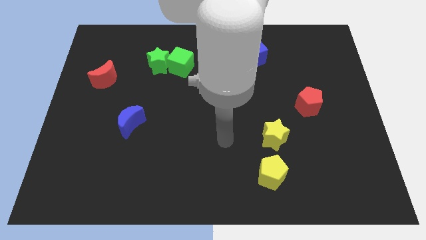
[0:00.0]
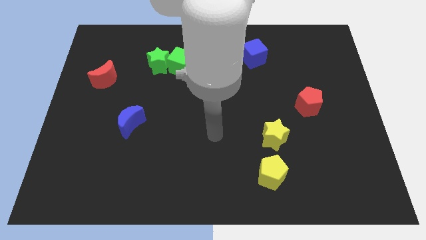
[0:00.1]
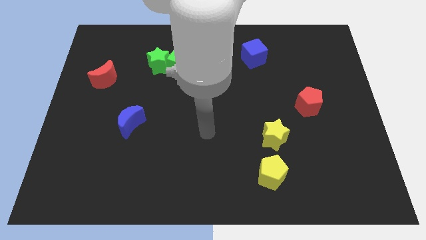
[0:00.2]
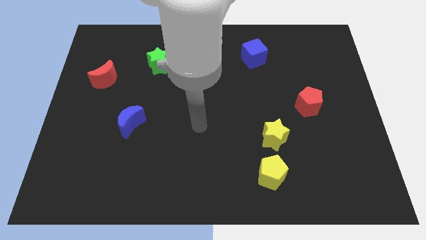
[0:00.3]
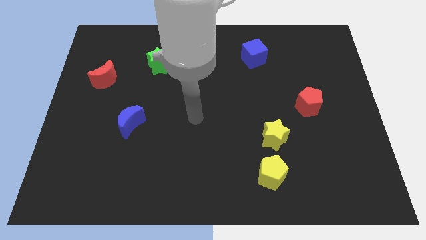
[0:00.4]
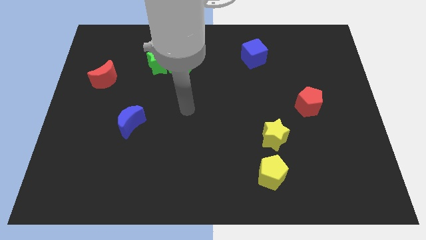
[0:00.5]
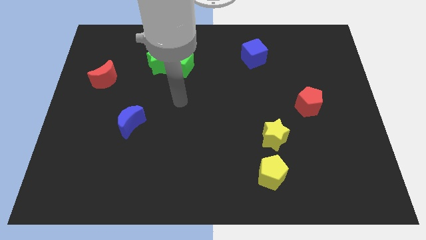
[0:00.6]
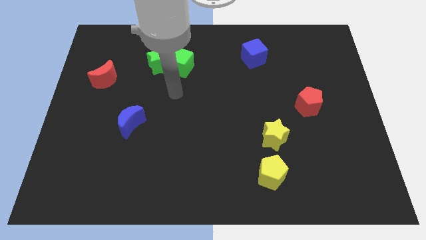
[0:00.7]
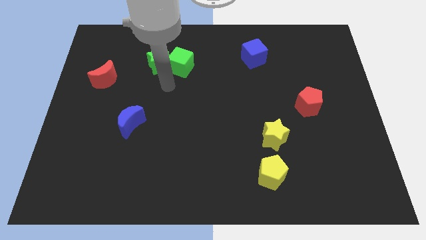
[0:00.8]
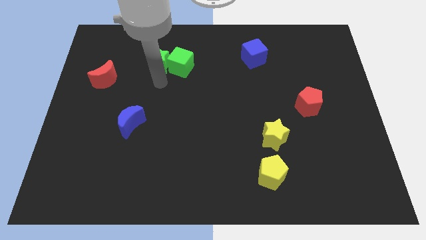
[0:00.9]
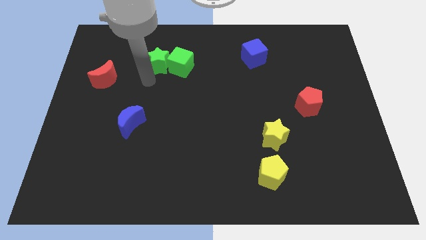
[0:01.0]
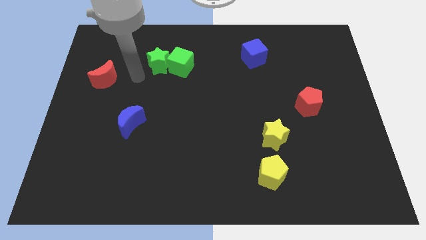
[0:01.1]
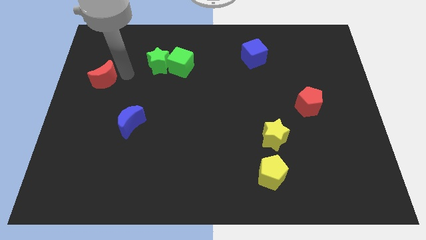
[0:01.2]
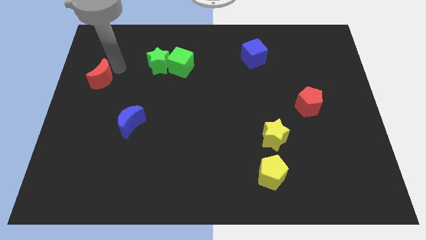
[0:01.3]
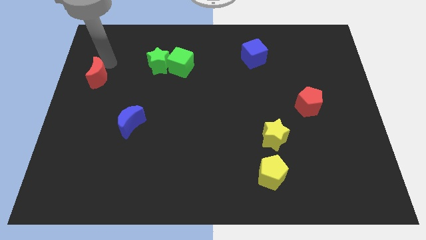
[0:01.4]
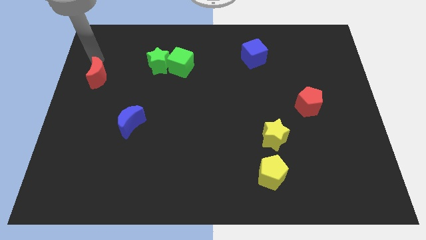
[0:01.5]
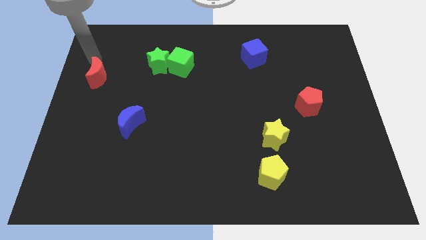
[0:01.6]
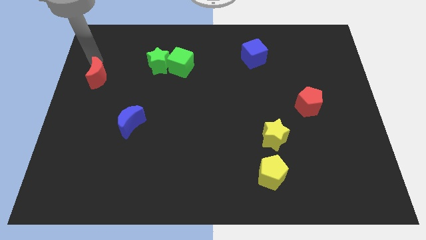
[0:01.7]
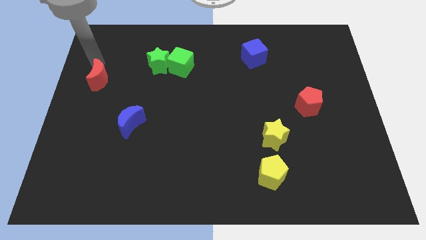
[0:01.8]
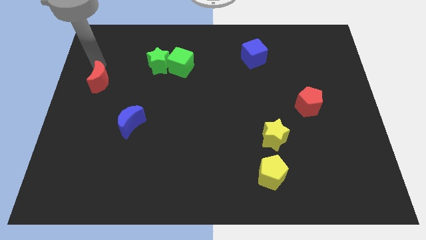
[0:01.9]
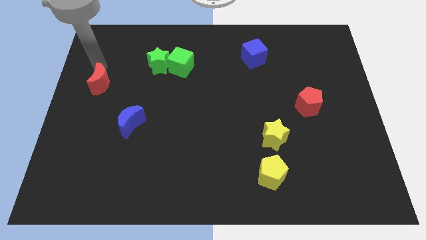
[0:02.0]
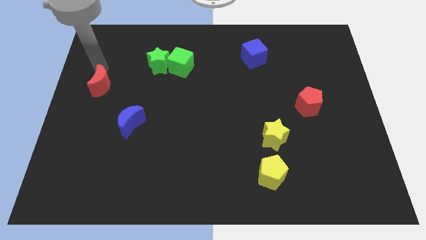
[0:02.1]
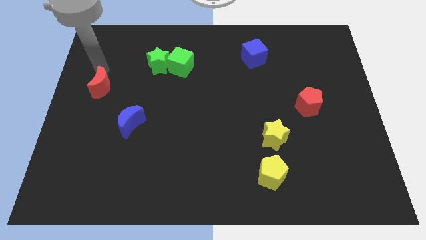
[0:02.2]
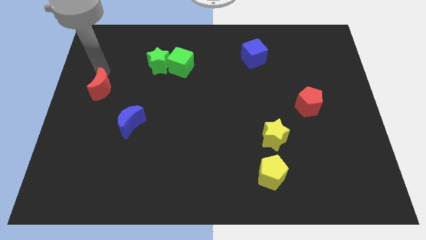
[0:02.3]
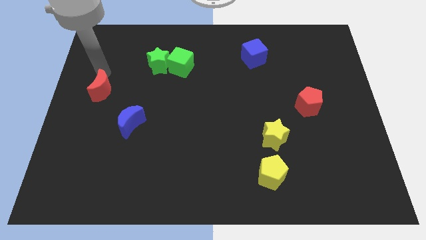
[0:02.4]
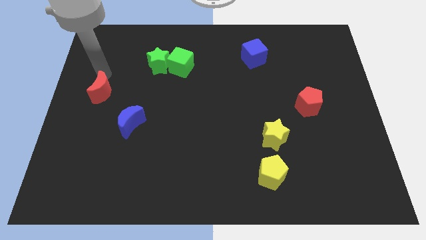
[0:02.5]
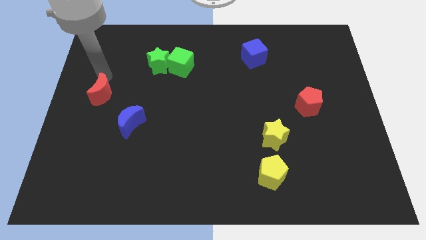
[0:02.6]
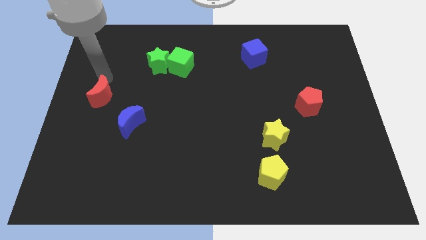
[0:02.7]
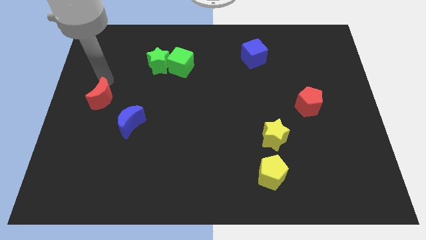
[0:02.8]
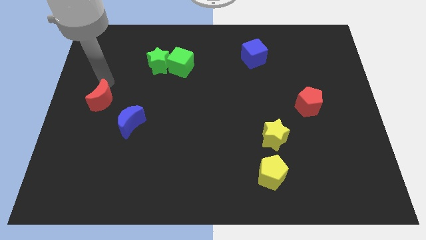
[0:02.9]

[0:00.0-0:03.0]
slightly slide the red moon downwards

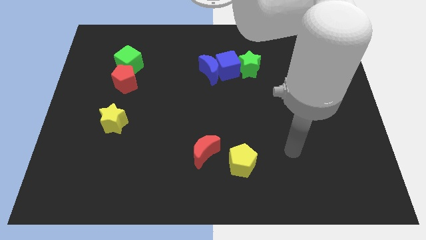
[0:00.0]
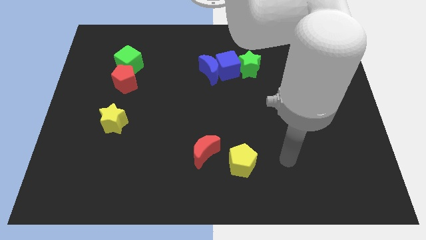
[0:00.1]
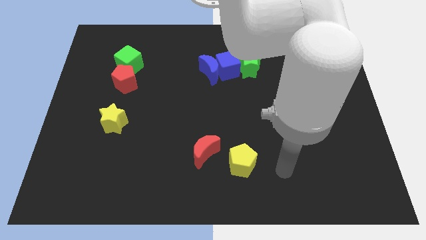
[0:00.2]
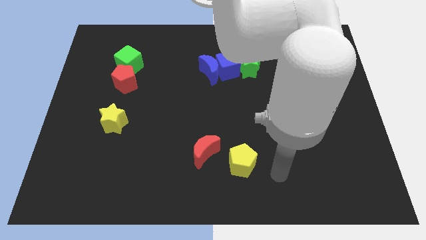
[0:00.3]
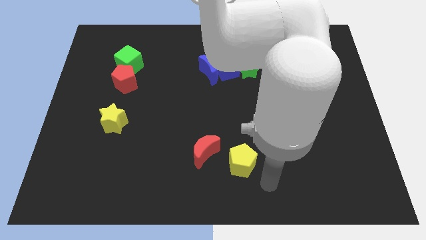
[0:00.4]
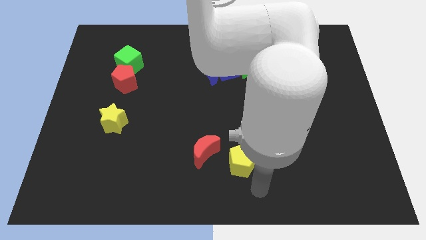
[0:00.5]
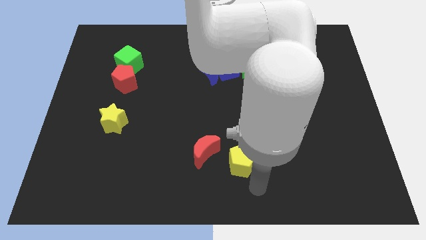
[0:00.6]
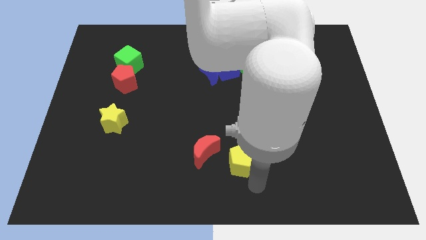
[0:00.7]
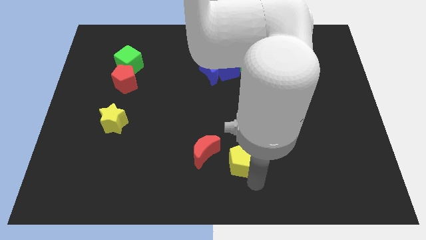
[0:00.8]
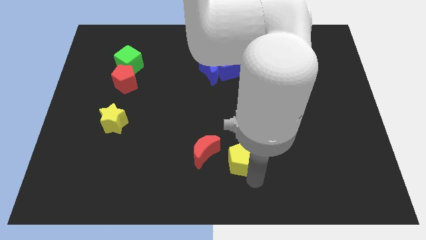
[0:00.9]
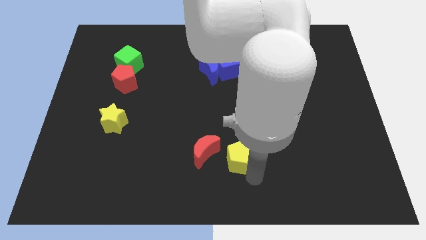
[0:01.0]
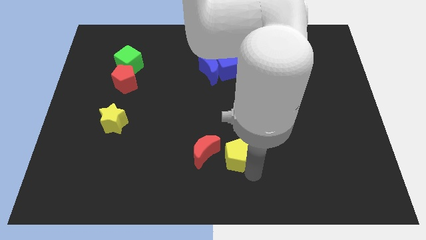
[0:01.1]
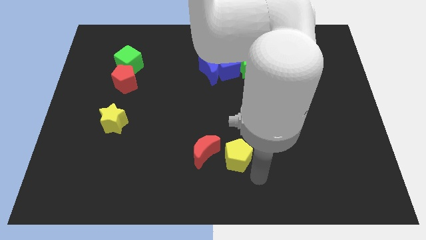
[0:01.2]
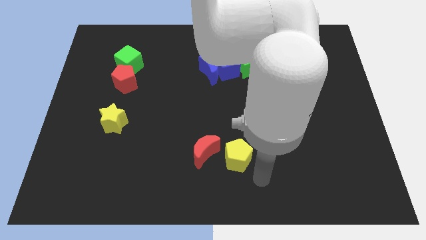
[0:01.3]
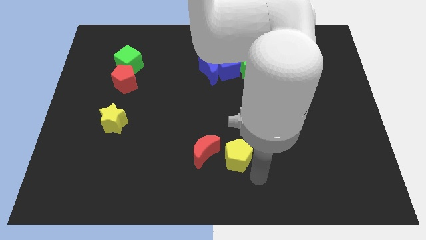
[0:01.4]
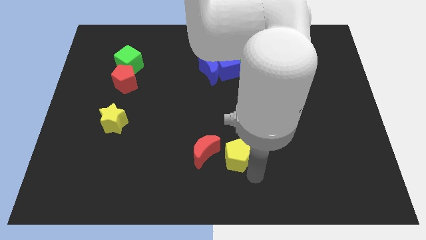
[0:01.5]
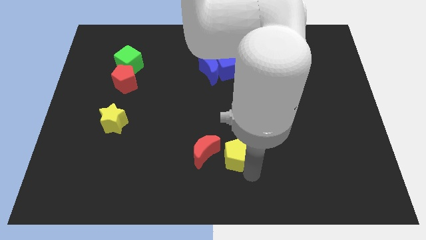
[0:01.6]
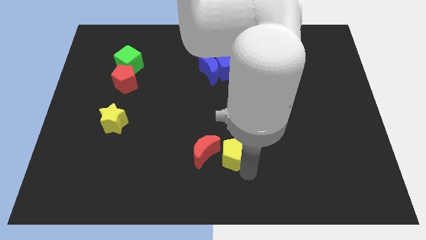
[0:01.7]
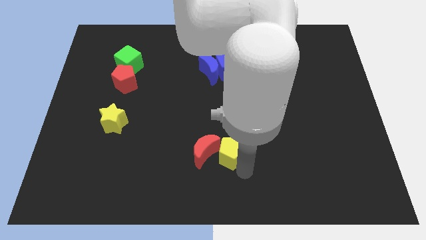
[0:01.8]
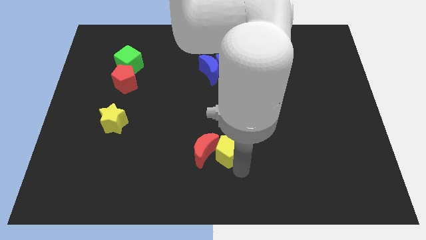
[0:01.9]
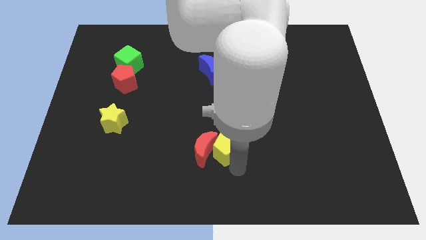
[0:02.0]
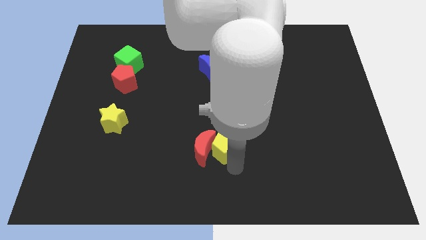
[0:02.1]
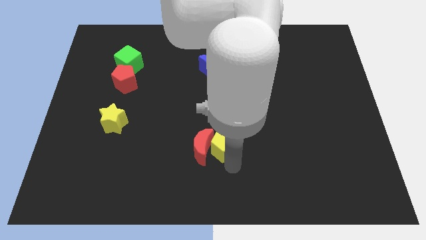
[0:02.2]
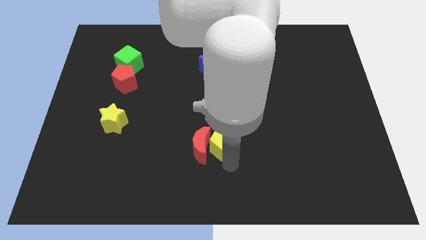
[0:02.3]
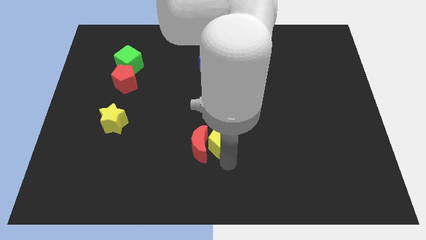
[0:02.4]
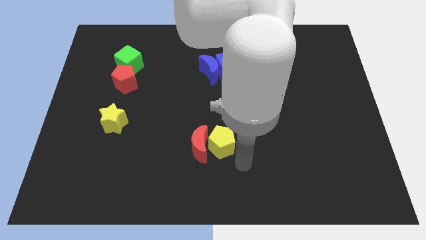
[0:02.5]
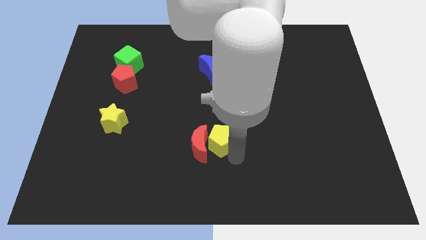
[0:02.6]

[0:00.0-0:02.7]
push the yellow pentagon a little diagonally up and to the left

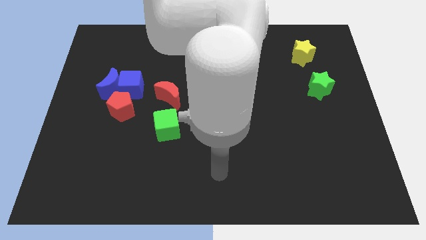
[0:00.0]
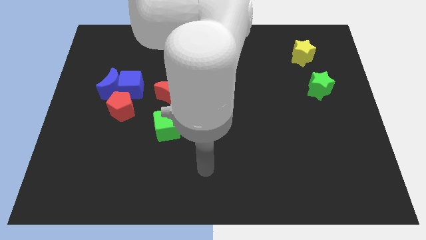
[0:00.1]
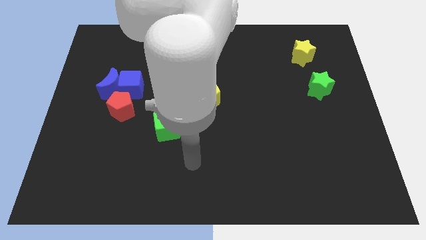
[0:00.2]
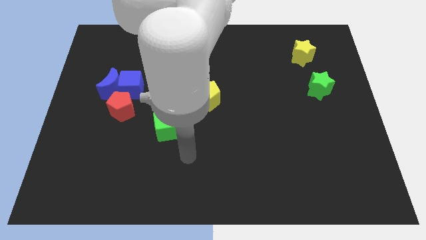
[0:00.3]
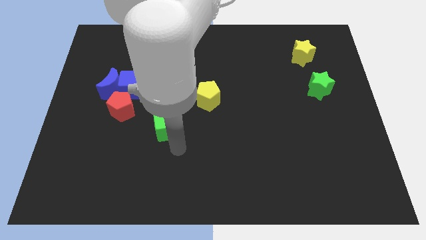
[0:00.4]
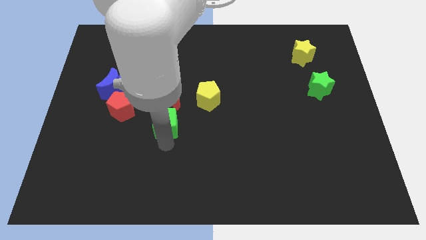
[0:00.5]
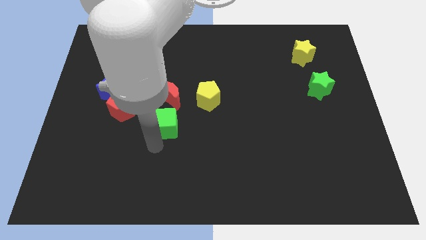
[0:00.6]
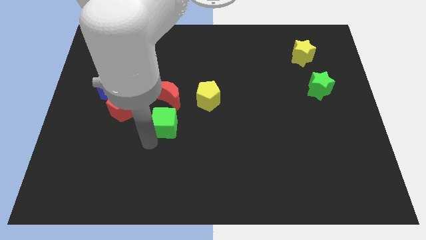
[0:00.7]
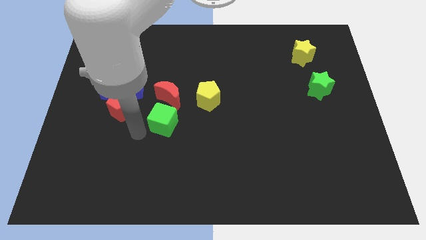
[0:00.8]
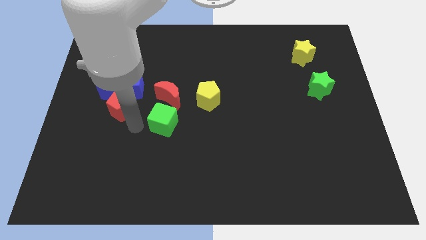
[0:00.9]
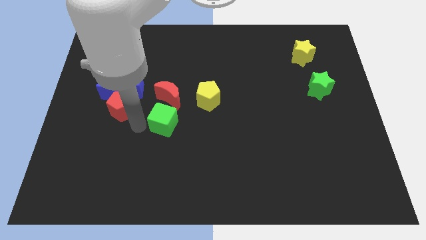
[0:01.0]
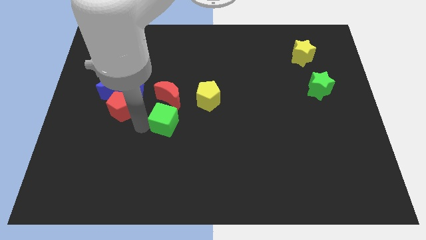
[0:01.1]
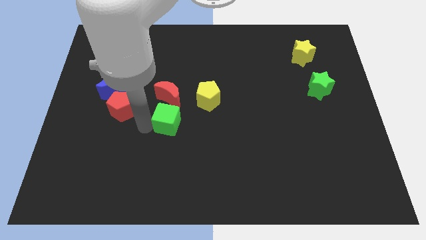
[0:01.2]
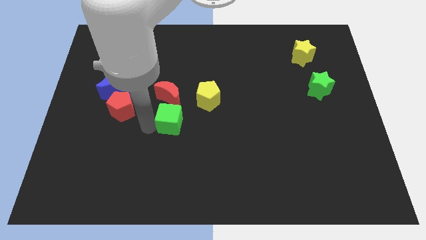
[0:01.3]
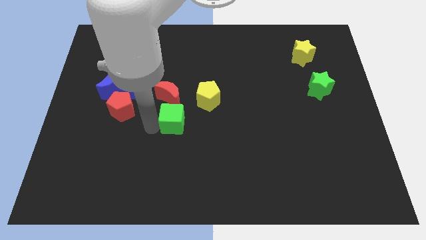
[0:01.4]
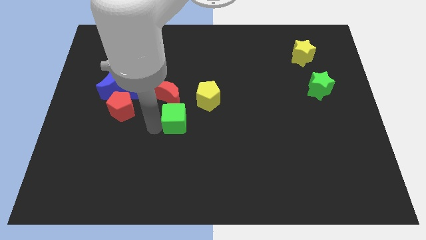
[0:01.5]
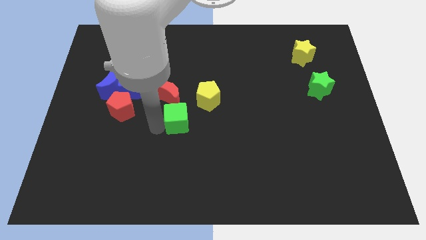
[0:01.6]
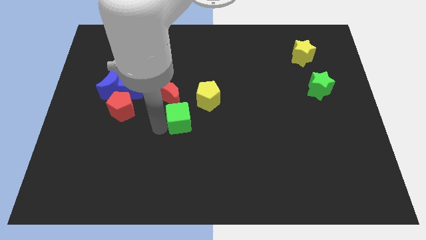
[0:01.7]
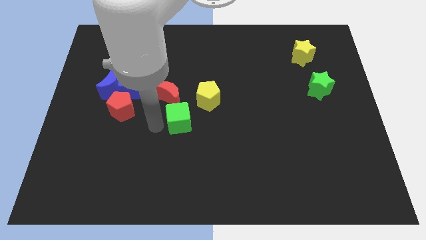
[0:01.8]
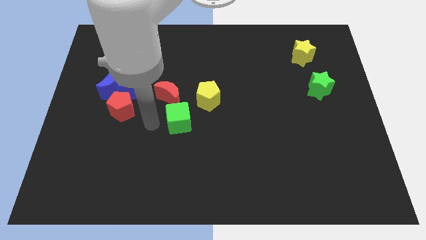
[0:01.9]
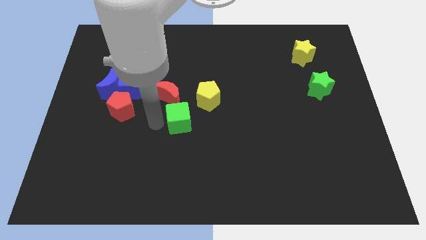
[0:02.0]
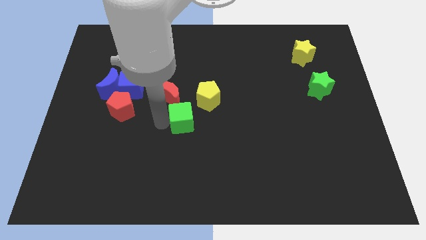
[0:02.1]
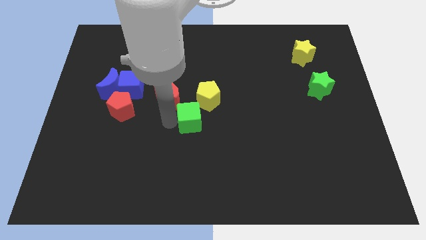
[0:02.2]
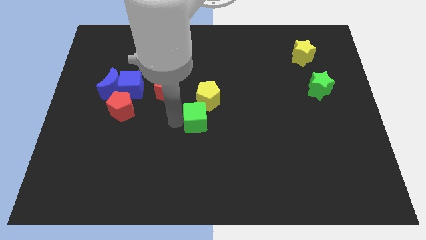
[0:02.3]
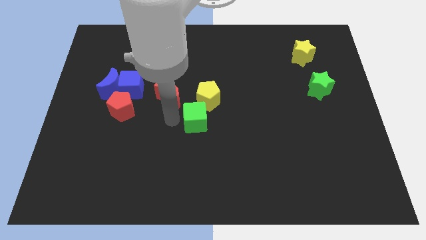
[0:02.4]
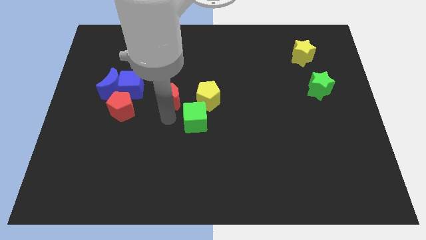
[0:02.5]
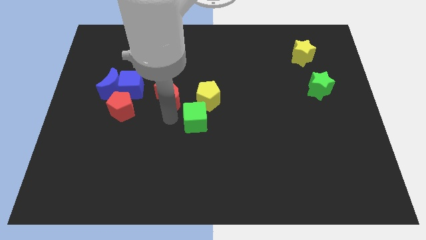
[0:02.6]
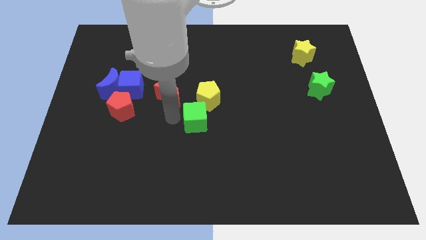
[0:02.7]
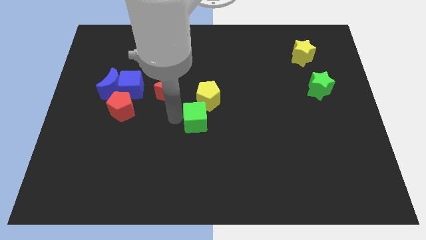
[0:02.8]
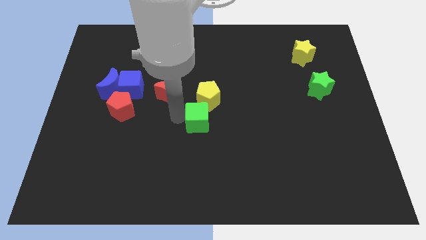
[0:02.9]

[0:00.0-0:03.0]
slightly push the green cube right
